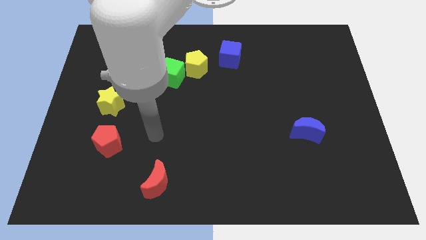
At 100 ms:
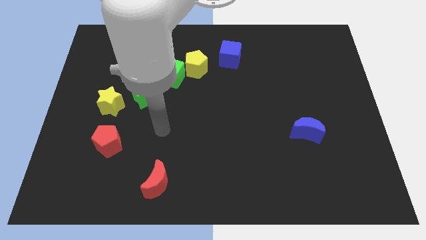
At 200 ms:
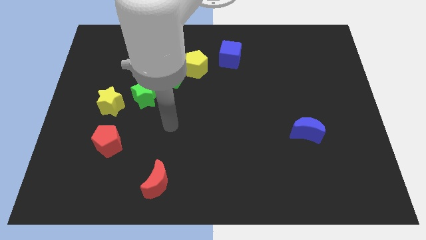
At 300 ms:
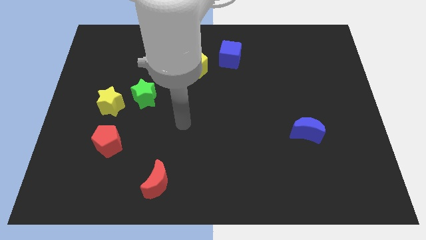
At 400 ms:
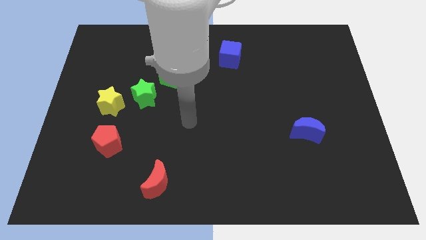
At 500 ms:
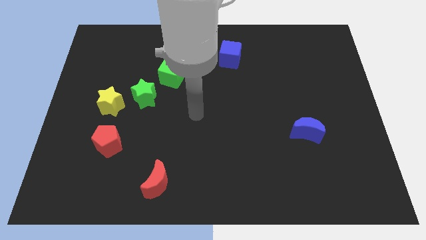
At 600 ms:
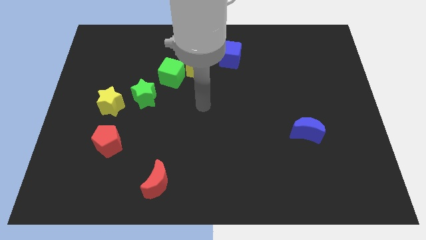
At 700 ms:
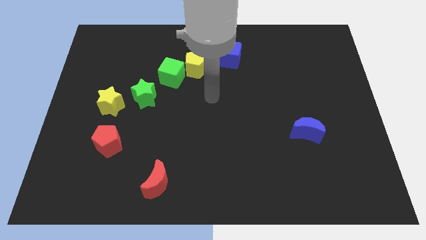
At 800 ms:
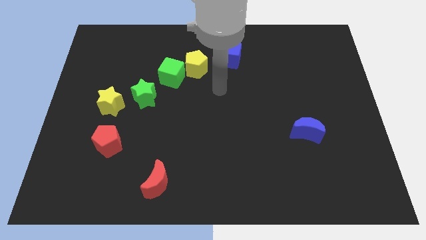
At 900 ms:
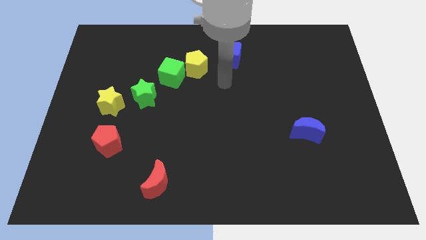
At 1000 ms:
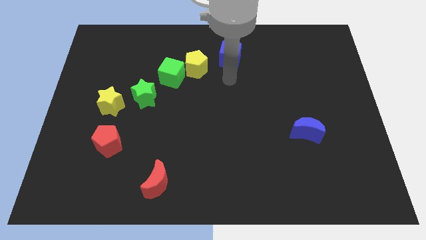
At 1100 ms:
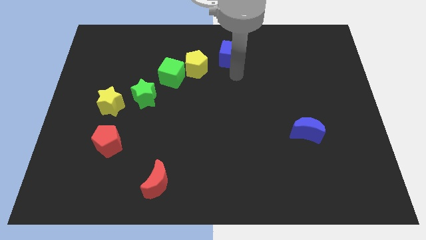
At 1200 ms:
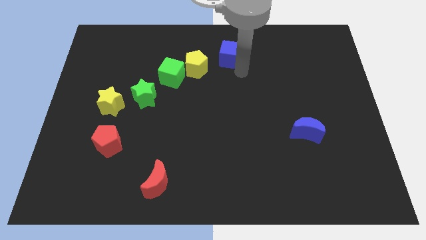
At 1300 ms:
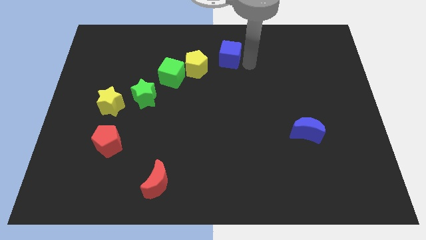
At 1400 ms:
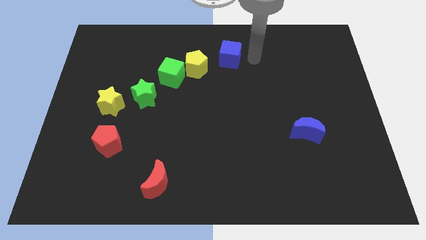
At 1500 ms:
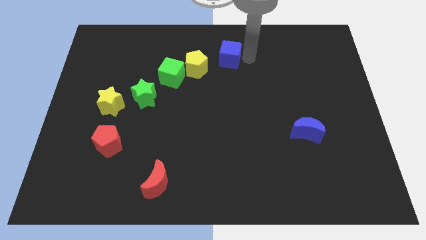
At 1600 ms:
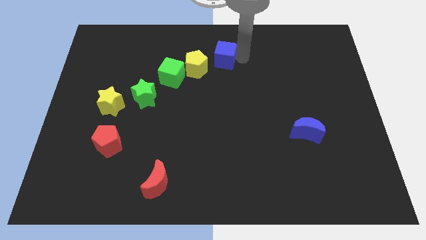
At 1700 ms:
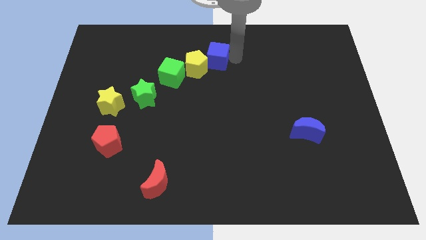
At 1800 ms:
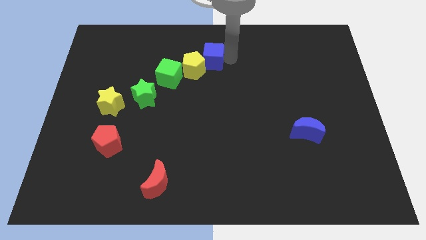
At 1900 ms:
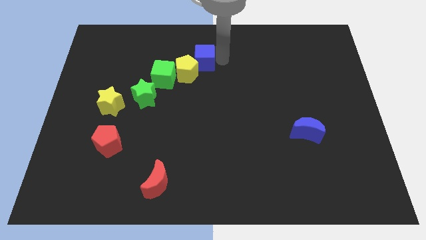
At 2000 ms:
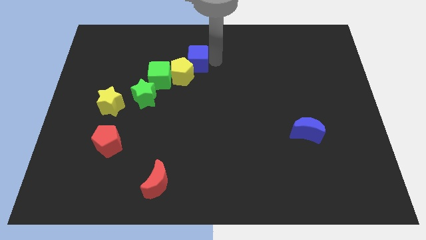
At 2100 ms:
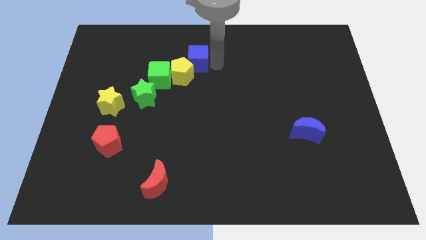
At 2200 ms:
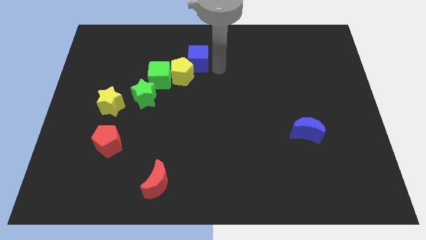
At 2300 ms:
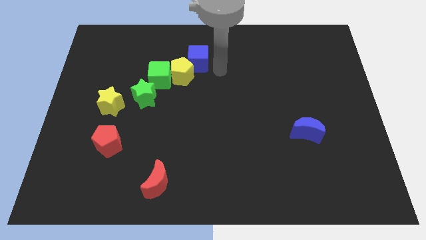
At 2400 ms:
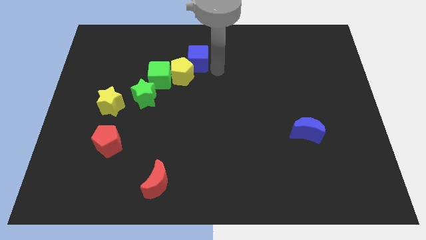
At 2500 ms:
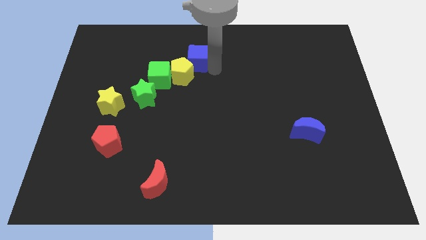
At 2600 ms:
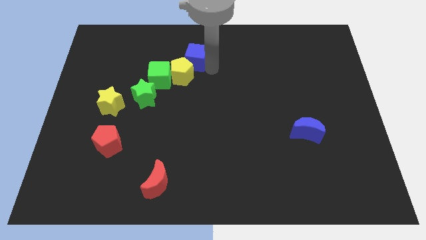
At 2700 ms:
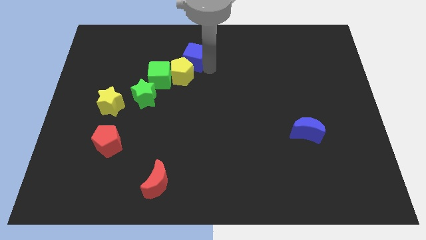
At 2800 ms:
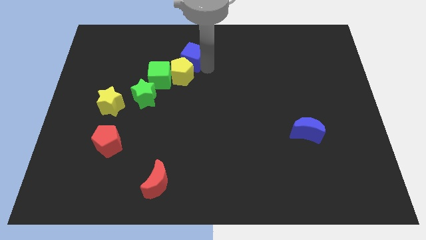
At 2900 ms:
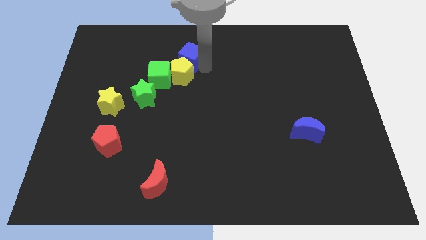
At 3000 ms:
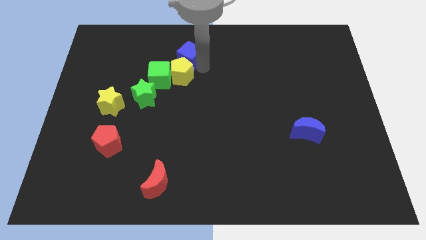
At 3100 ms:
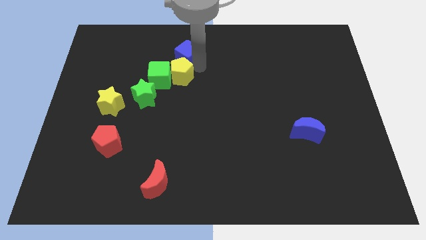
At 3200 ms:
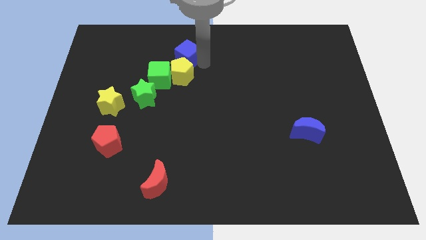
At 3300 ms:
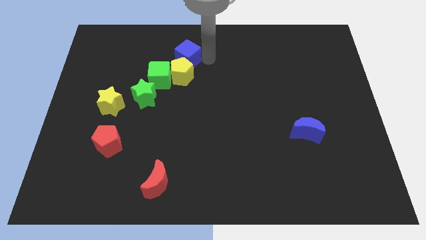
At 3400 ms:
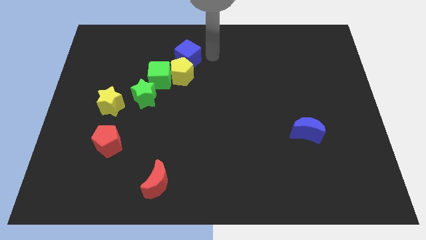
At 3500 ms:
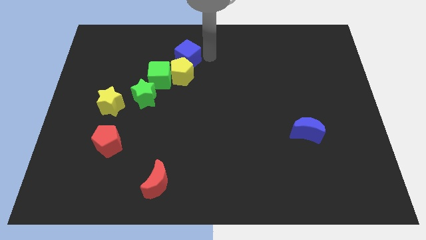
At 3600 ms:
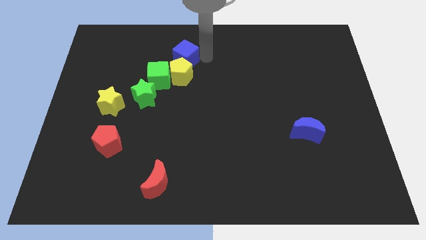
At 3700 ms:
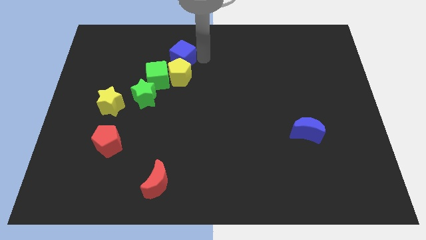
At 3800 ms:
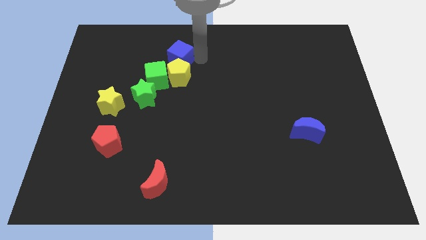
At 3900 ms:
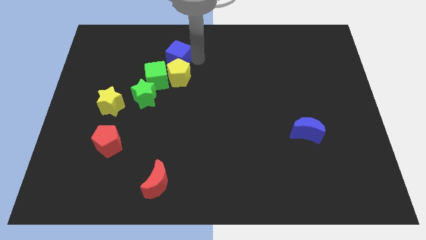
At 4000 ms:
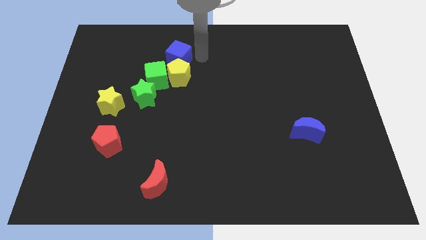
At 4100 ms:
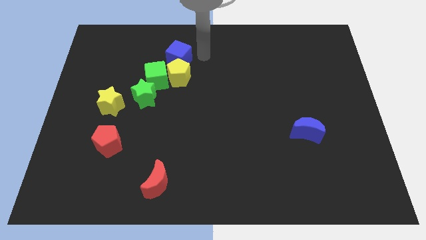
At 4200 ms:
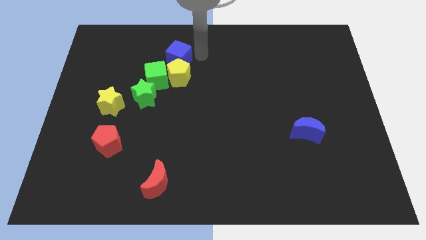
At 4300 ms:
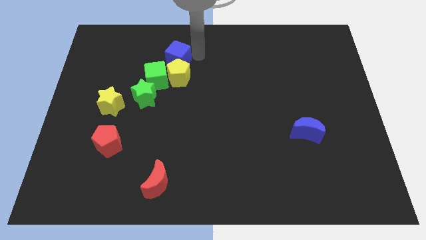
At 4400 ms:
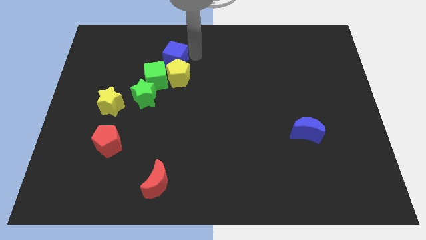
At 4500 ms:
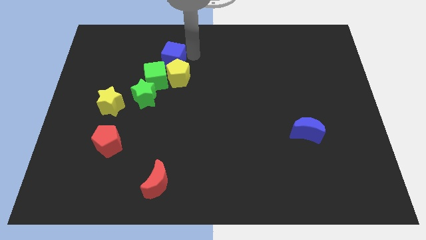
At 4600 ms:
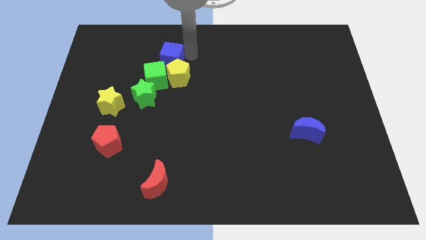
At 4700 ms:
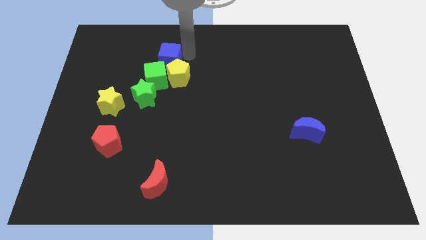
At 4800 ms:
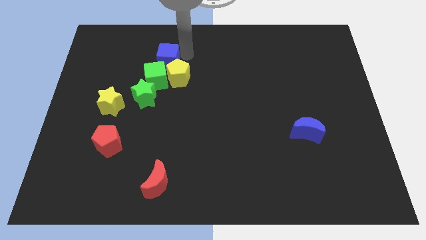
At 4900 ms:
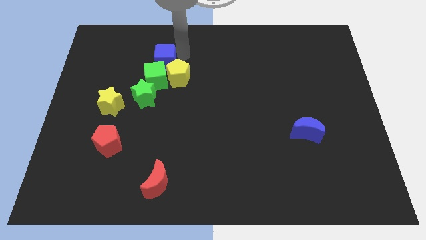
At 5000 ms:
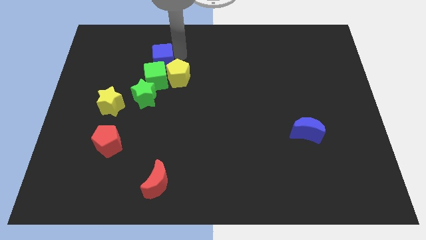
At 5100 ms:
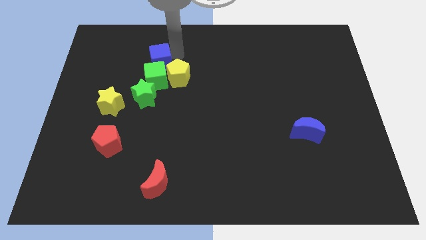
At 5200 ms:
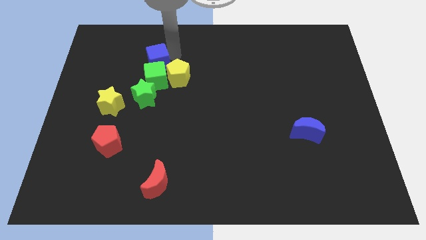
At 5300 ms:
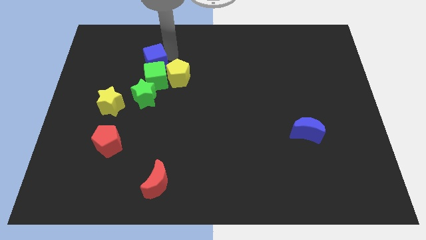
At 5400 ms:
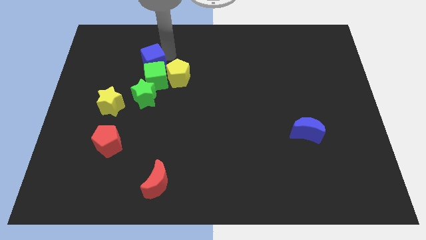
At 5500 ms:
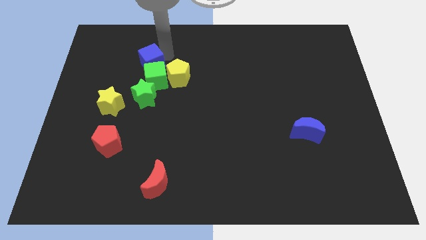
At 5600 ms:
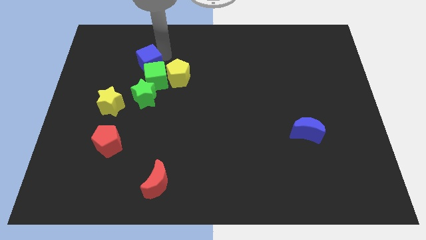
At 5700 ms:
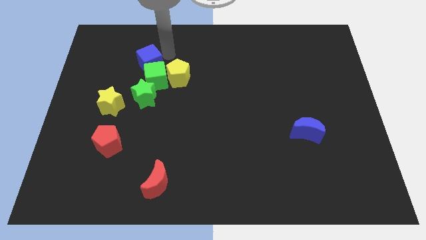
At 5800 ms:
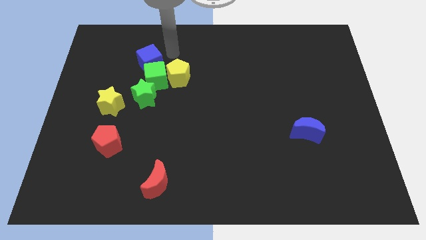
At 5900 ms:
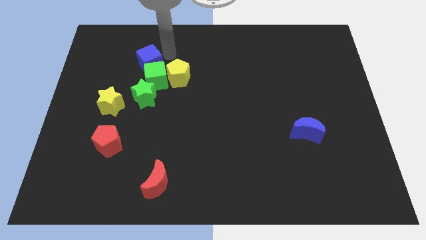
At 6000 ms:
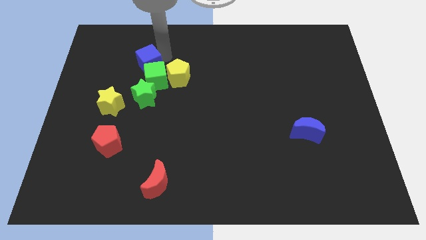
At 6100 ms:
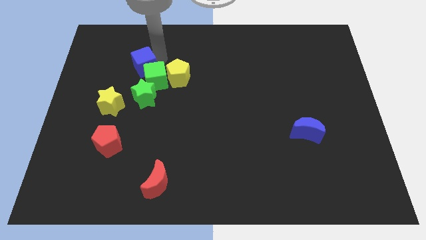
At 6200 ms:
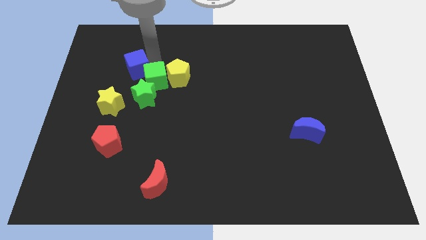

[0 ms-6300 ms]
move the blue cube above the yellow star

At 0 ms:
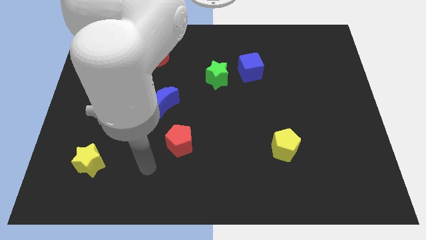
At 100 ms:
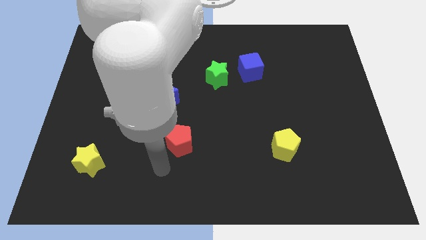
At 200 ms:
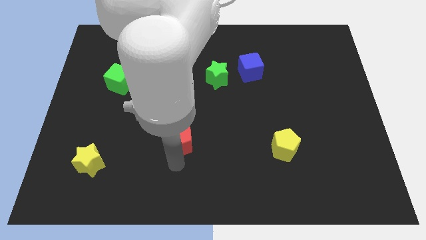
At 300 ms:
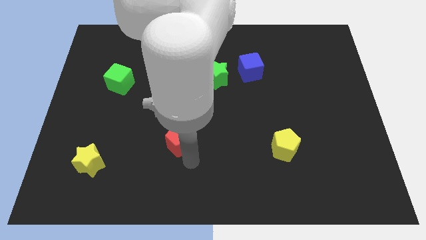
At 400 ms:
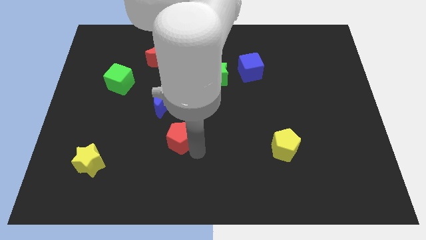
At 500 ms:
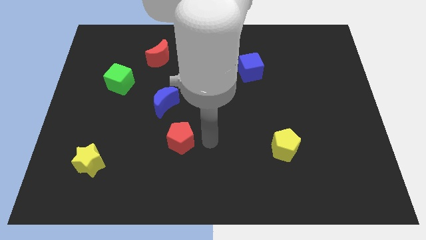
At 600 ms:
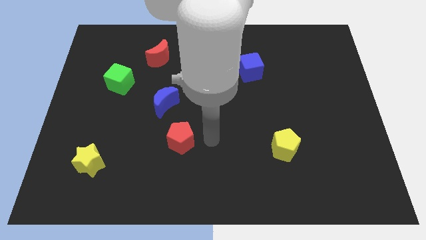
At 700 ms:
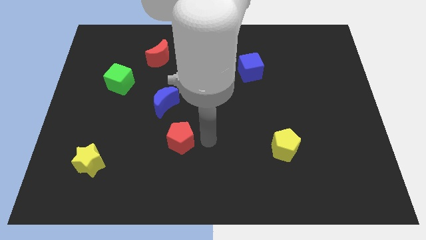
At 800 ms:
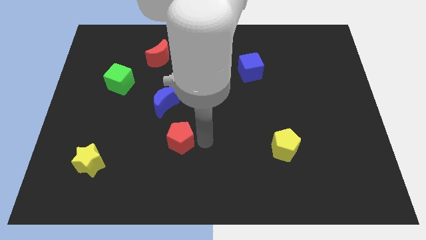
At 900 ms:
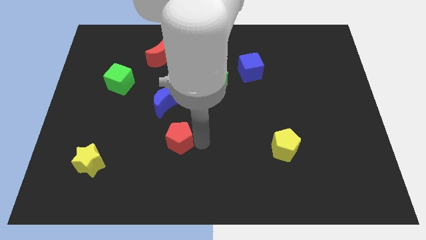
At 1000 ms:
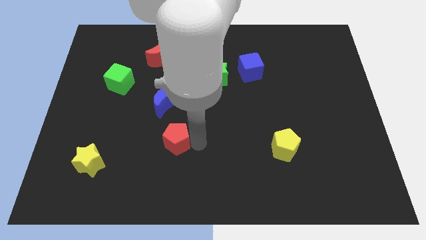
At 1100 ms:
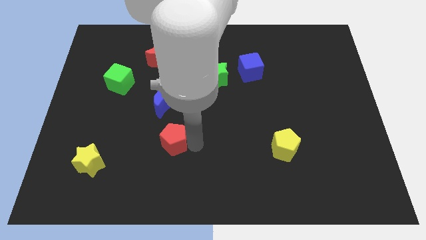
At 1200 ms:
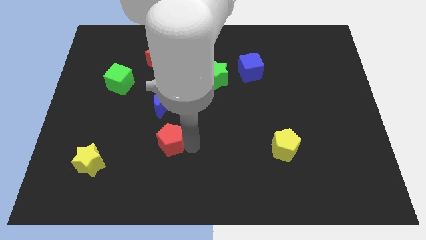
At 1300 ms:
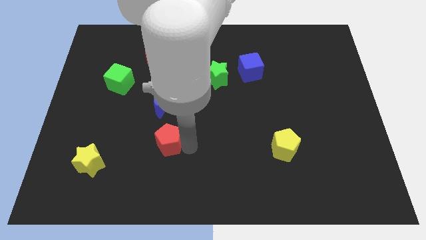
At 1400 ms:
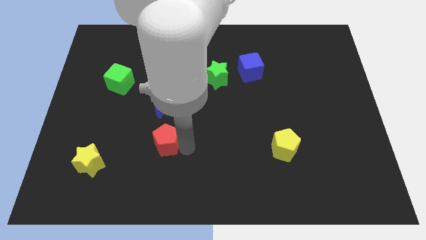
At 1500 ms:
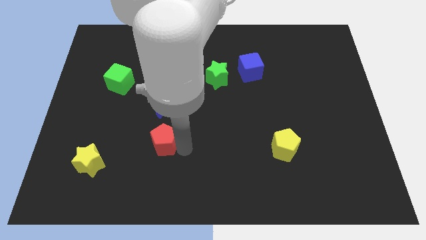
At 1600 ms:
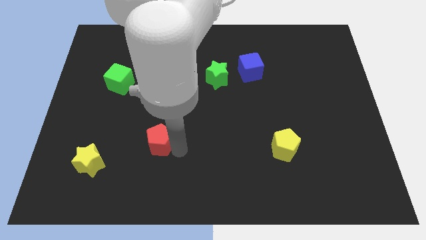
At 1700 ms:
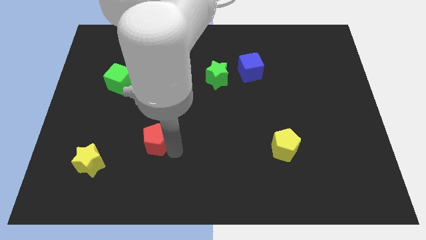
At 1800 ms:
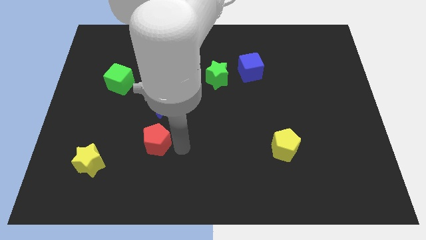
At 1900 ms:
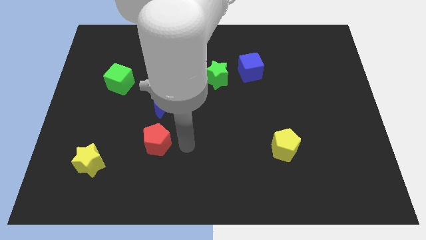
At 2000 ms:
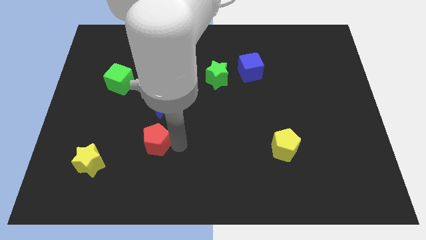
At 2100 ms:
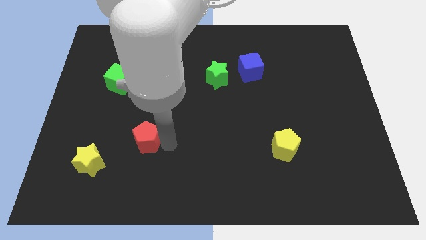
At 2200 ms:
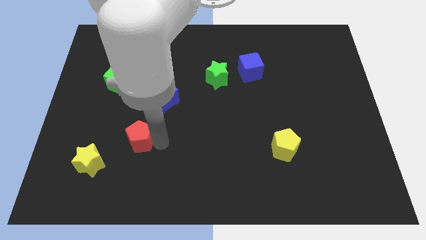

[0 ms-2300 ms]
slide the red pentagon to the top right of the yellow star
